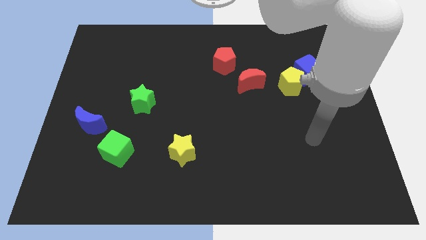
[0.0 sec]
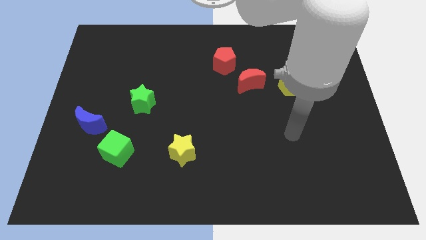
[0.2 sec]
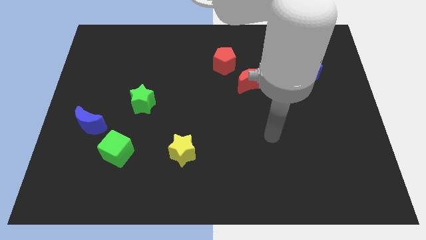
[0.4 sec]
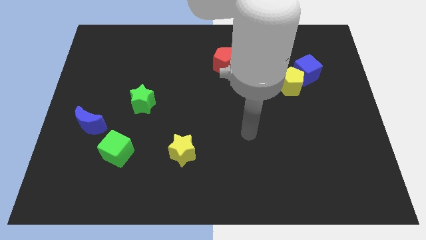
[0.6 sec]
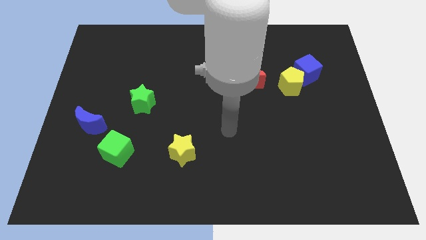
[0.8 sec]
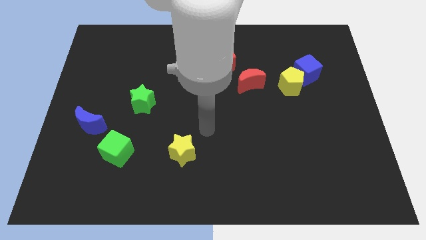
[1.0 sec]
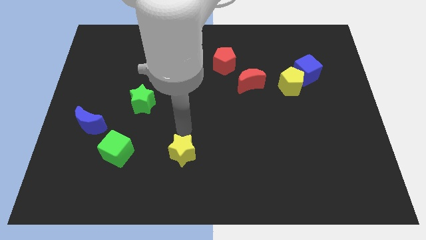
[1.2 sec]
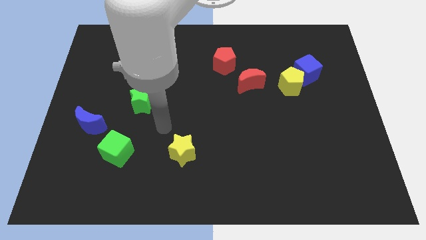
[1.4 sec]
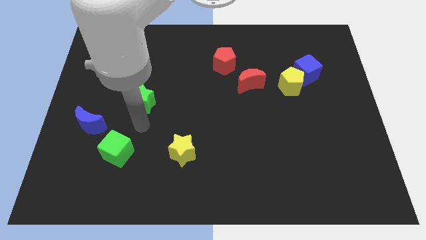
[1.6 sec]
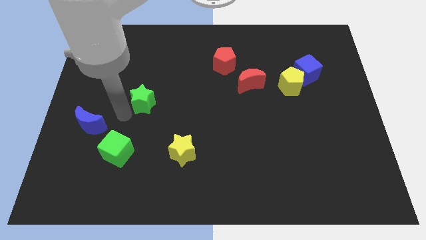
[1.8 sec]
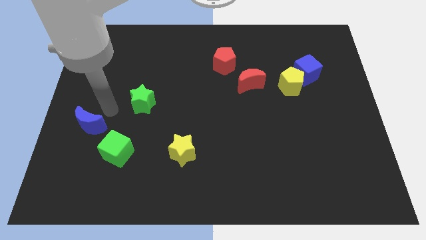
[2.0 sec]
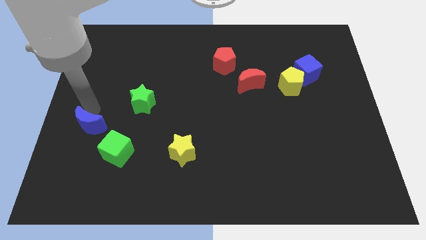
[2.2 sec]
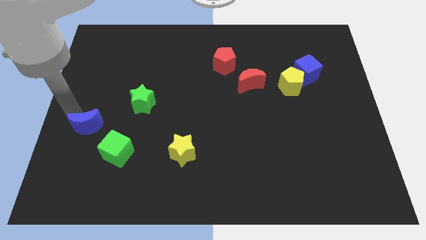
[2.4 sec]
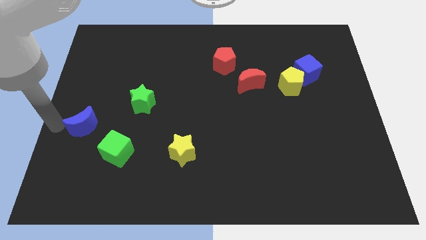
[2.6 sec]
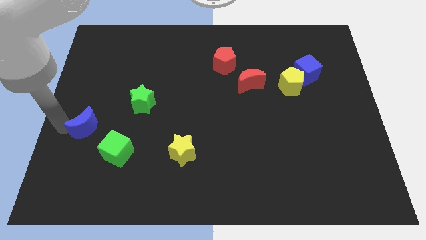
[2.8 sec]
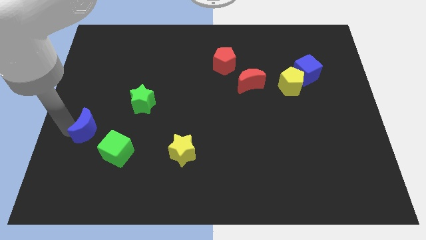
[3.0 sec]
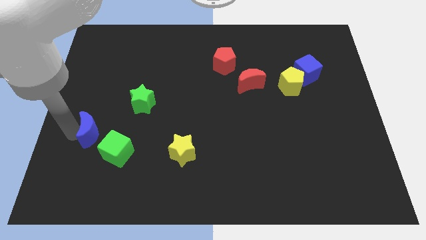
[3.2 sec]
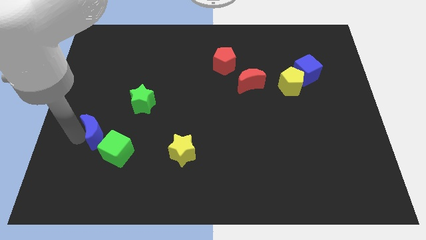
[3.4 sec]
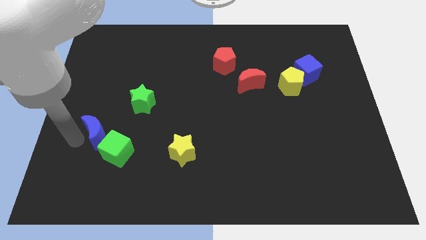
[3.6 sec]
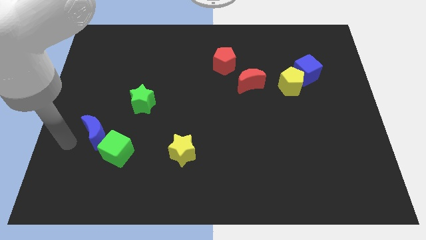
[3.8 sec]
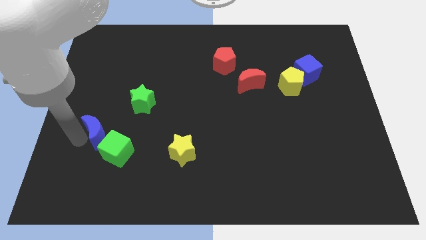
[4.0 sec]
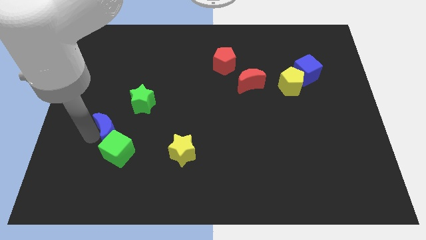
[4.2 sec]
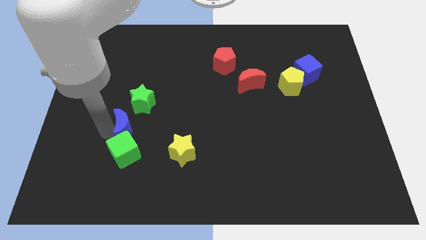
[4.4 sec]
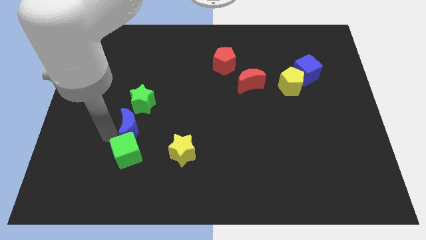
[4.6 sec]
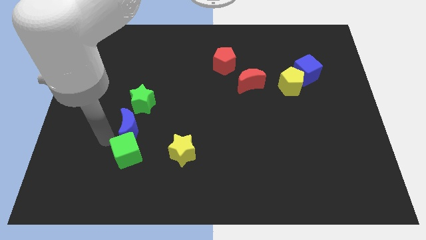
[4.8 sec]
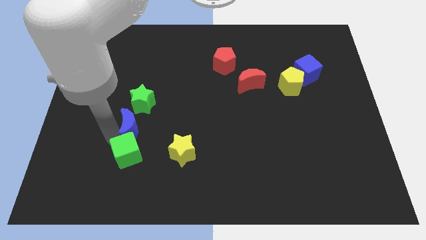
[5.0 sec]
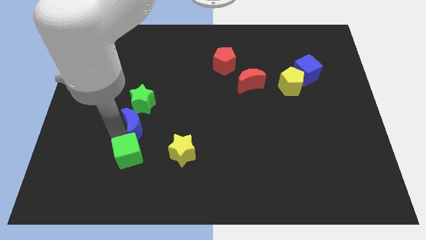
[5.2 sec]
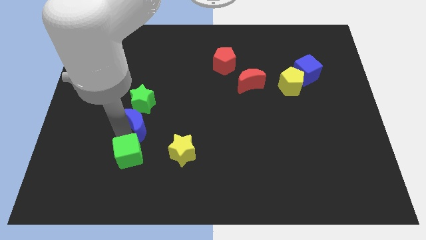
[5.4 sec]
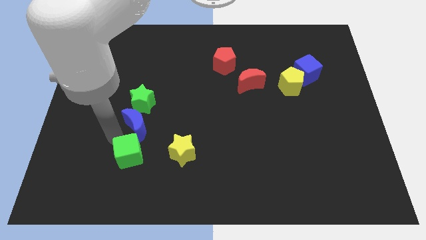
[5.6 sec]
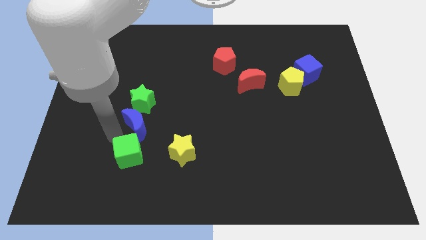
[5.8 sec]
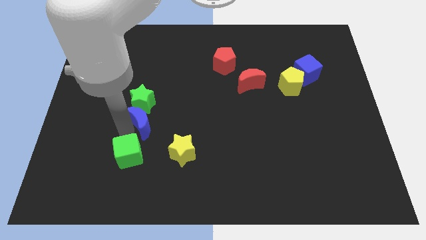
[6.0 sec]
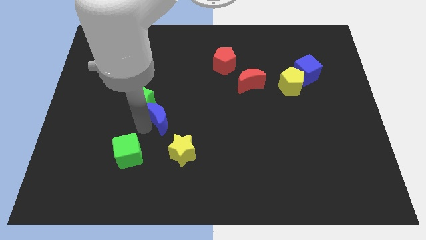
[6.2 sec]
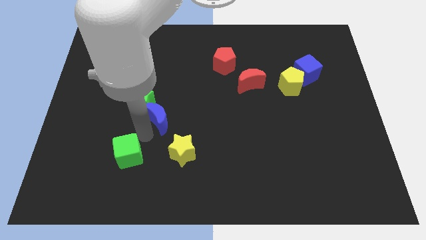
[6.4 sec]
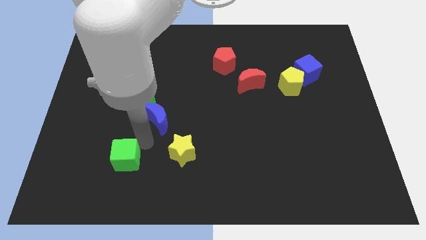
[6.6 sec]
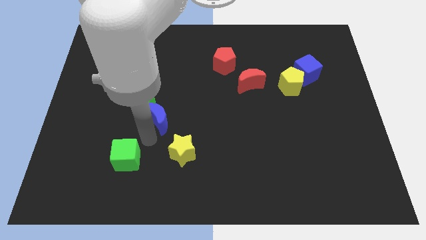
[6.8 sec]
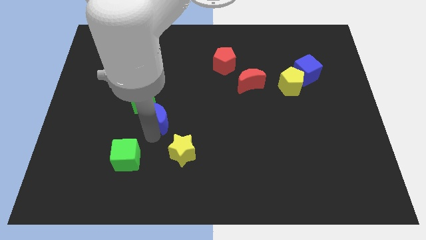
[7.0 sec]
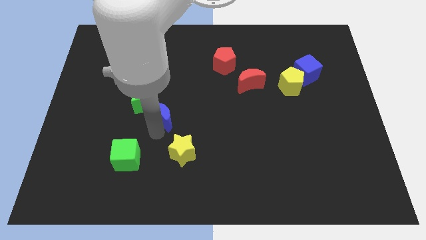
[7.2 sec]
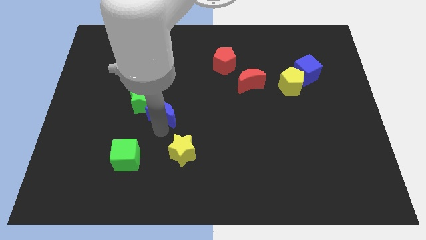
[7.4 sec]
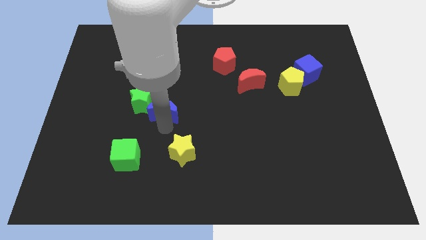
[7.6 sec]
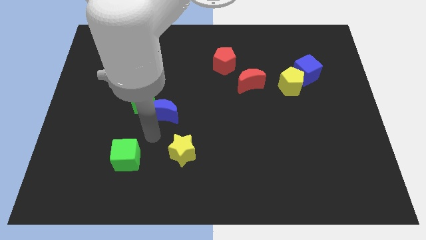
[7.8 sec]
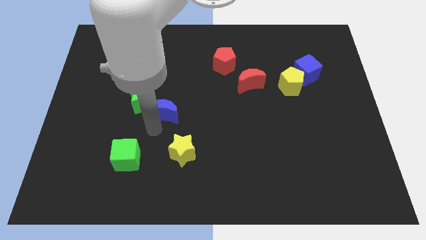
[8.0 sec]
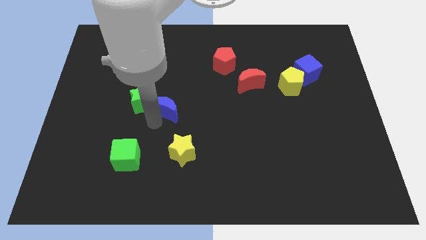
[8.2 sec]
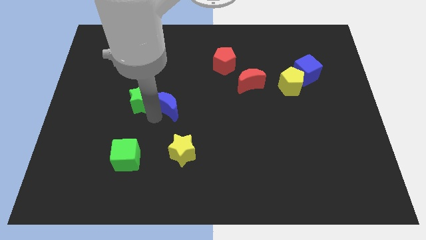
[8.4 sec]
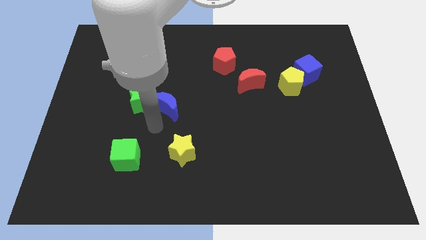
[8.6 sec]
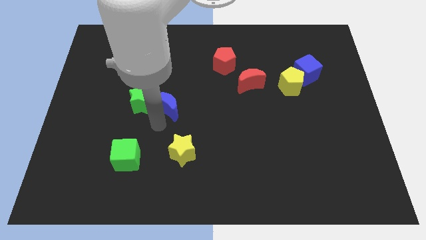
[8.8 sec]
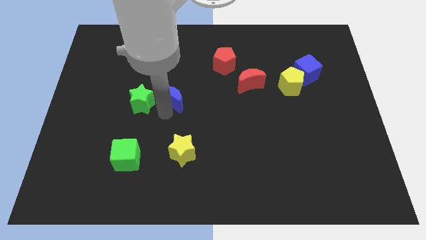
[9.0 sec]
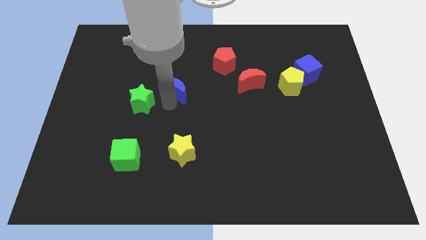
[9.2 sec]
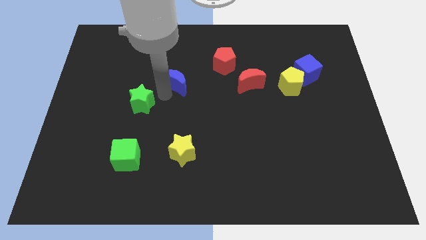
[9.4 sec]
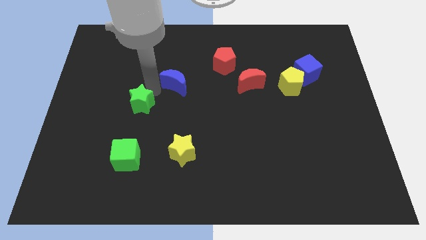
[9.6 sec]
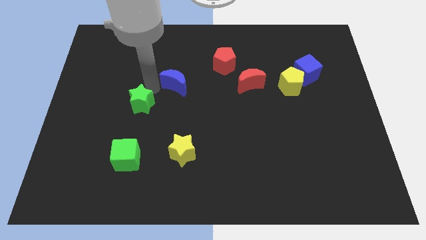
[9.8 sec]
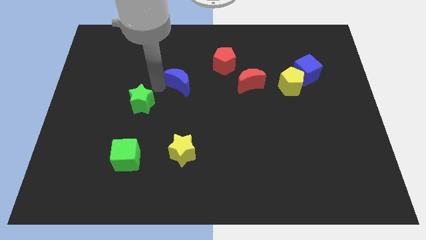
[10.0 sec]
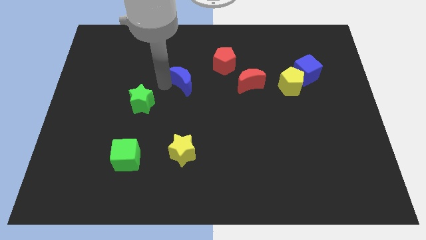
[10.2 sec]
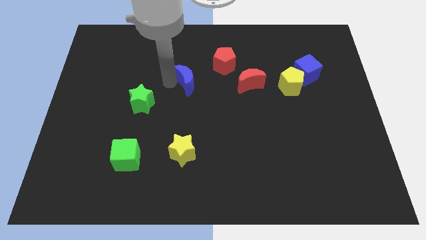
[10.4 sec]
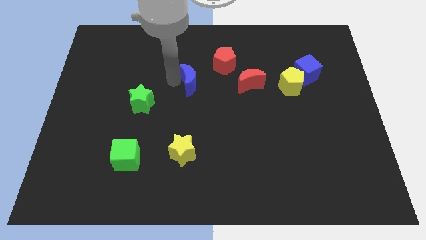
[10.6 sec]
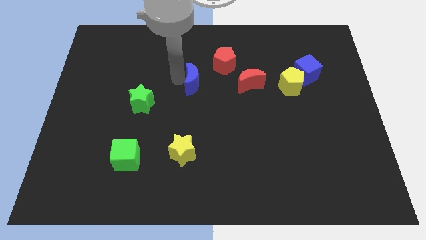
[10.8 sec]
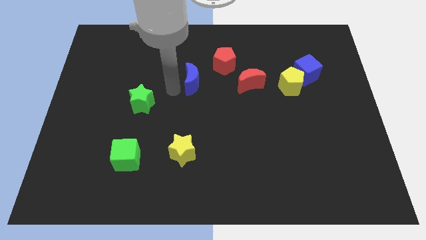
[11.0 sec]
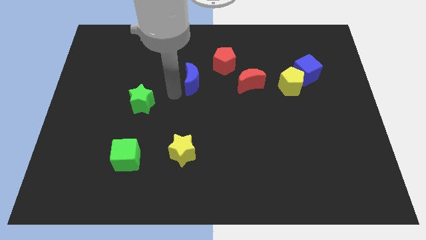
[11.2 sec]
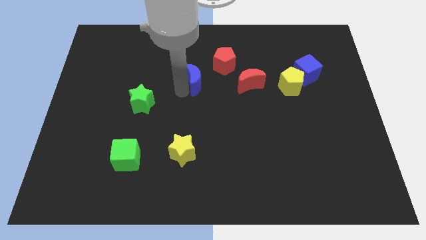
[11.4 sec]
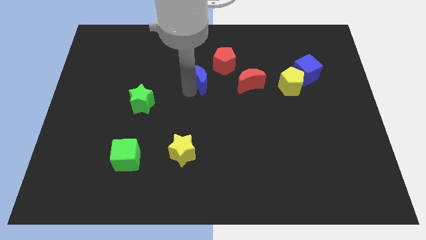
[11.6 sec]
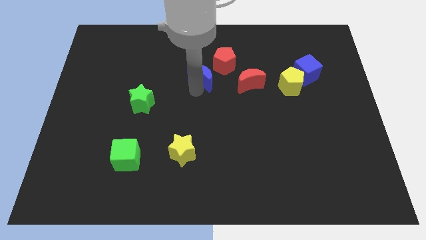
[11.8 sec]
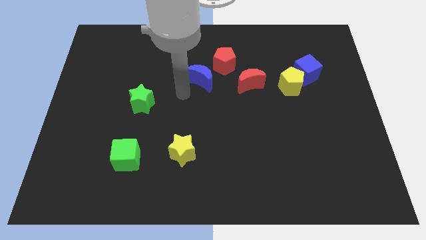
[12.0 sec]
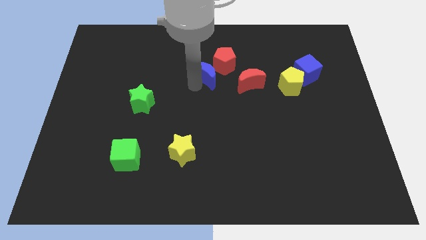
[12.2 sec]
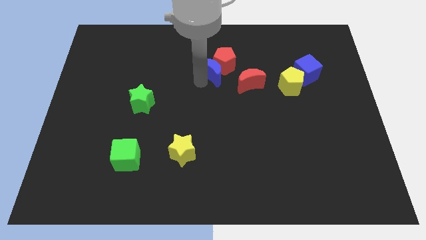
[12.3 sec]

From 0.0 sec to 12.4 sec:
move the blue moon towards the red pentagon

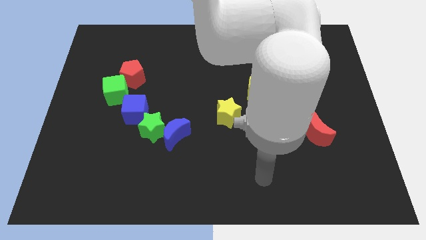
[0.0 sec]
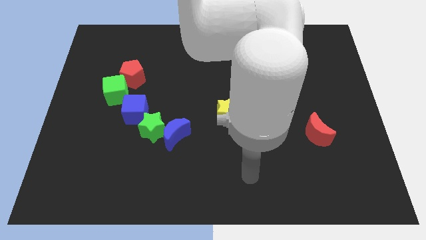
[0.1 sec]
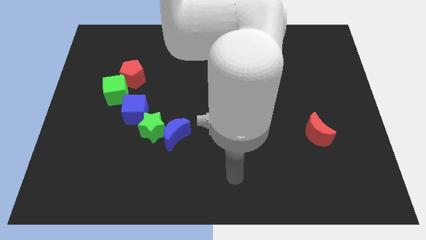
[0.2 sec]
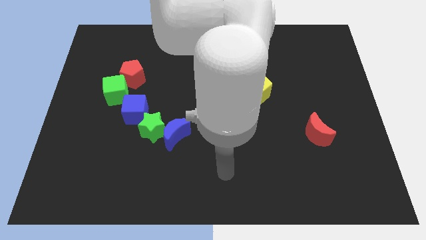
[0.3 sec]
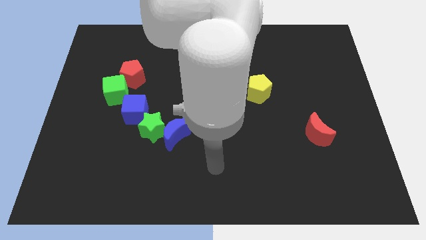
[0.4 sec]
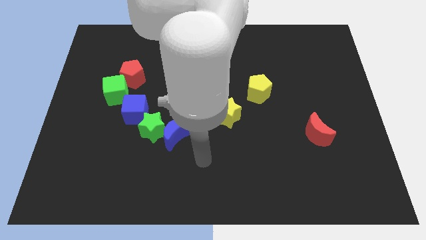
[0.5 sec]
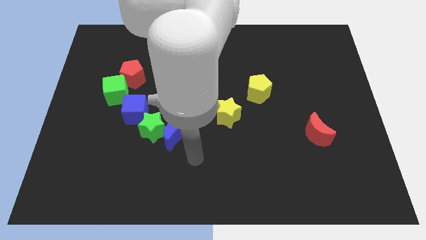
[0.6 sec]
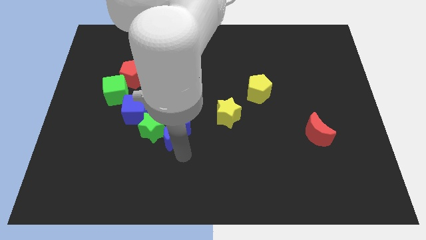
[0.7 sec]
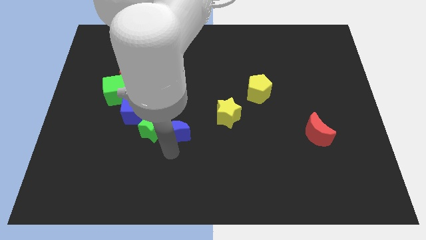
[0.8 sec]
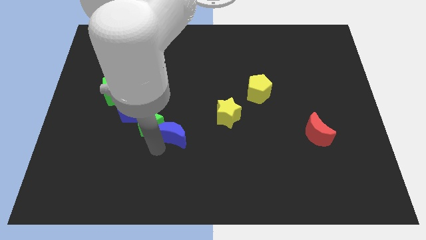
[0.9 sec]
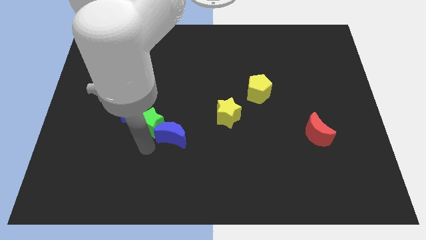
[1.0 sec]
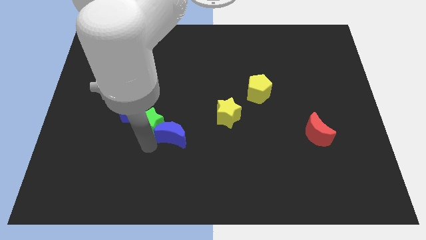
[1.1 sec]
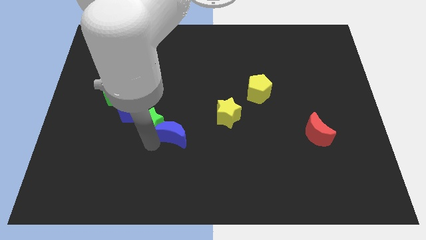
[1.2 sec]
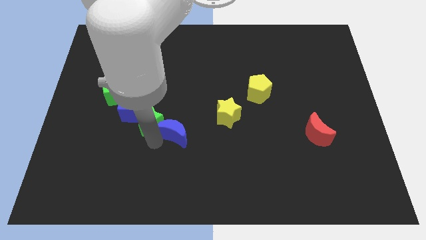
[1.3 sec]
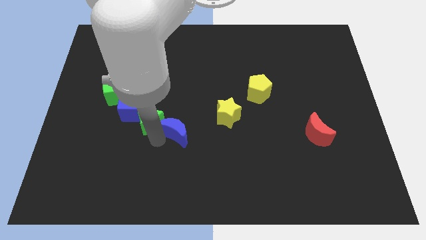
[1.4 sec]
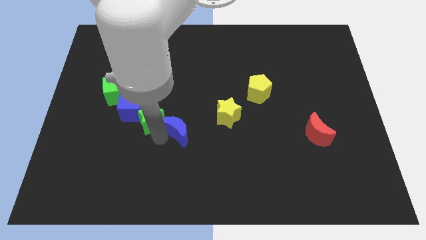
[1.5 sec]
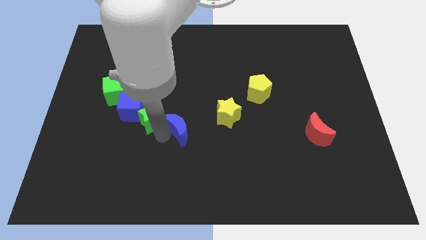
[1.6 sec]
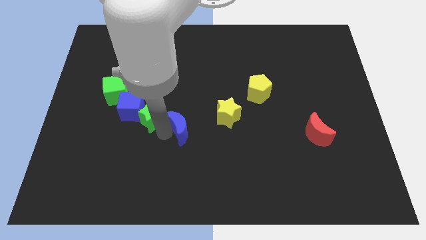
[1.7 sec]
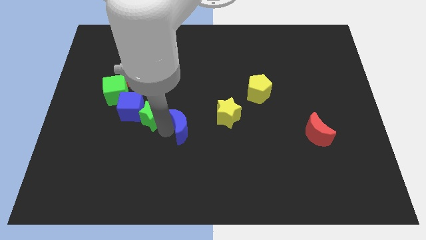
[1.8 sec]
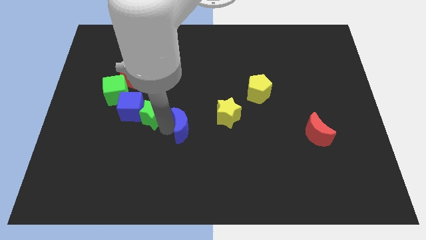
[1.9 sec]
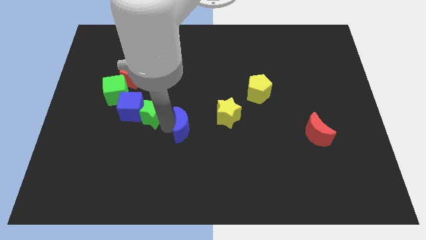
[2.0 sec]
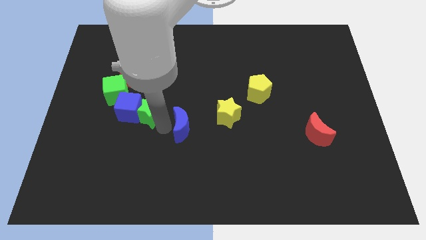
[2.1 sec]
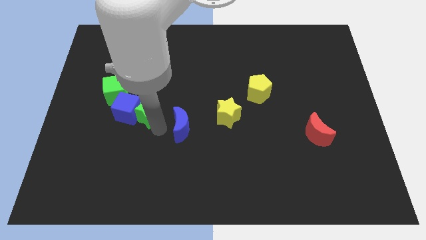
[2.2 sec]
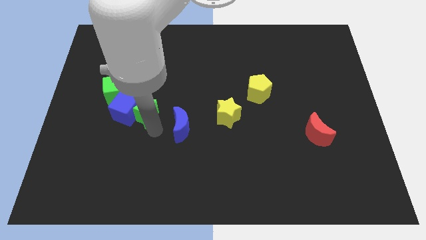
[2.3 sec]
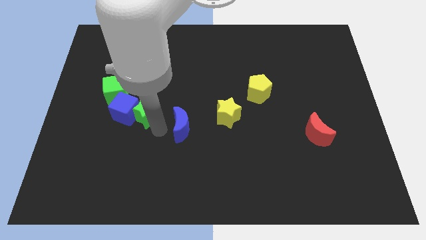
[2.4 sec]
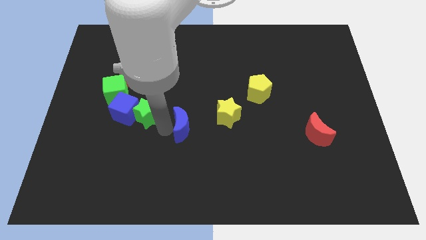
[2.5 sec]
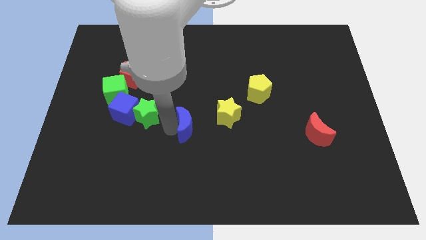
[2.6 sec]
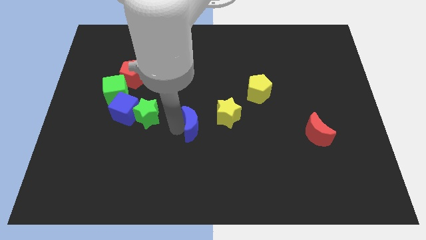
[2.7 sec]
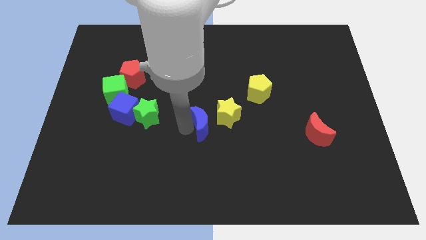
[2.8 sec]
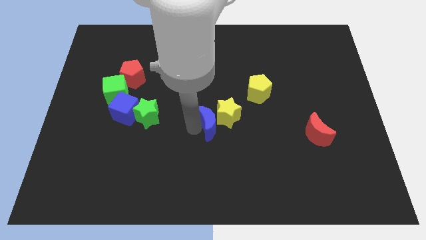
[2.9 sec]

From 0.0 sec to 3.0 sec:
slide the blue moon to the yellow star
